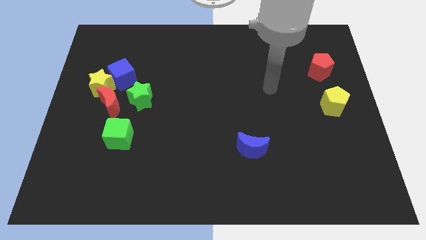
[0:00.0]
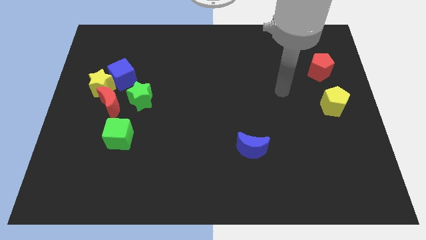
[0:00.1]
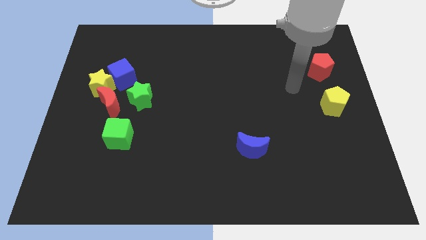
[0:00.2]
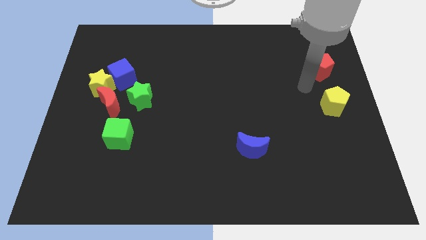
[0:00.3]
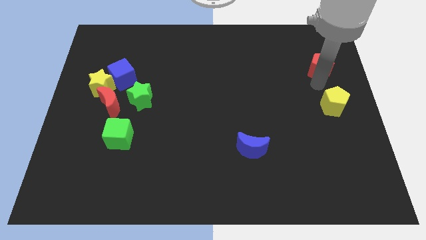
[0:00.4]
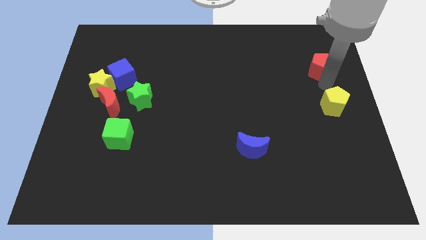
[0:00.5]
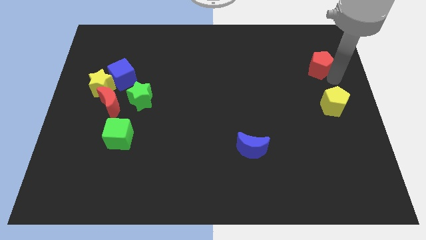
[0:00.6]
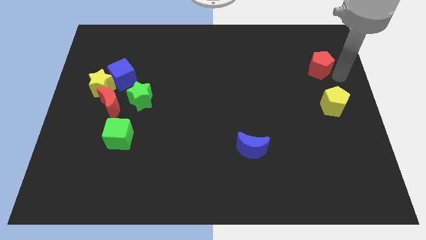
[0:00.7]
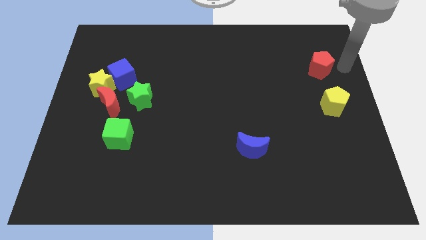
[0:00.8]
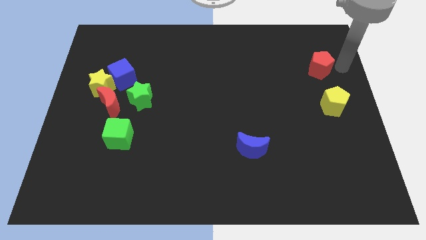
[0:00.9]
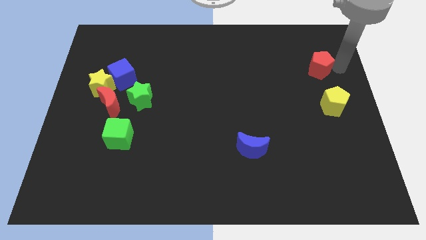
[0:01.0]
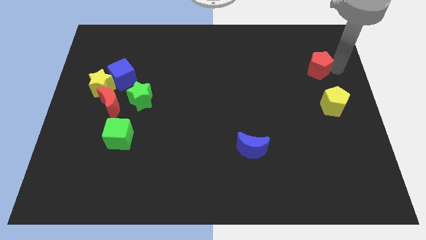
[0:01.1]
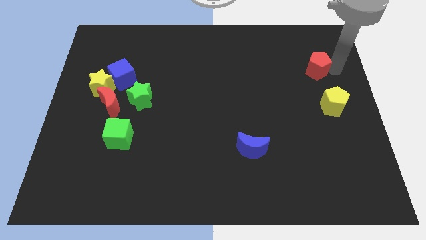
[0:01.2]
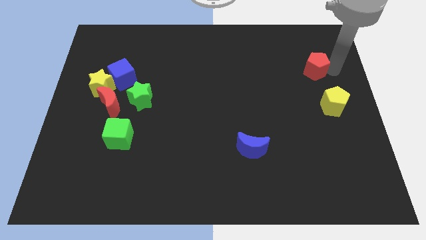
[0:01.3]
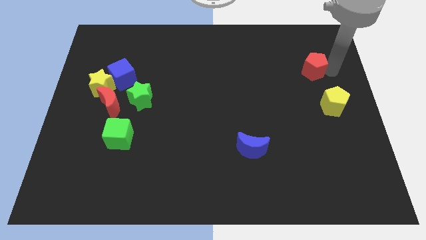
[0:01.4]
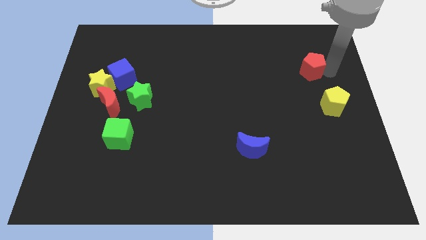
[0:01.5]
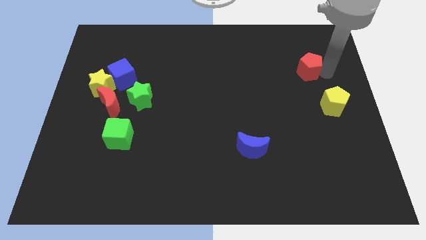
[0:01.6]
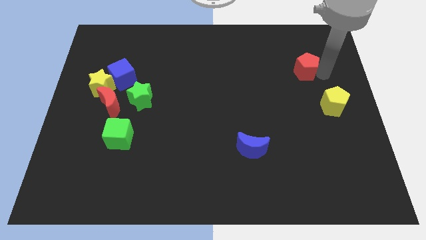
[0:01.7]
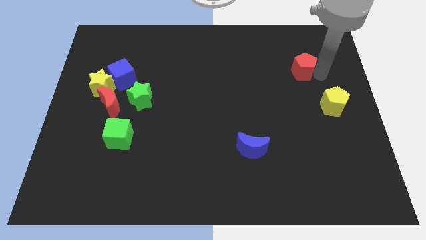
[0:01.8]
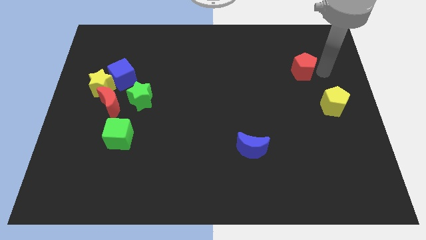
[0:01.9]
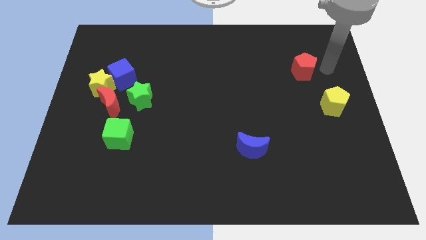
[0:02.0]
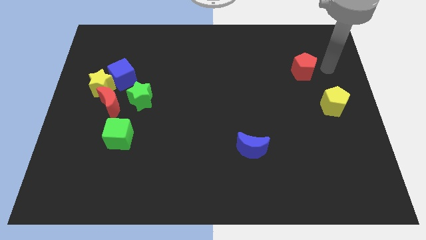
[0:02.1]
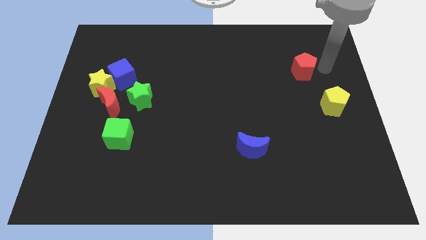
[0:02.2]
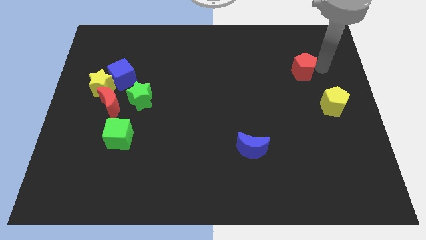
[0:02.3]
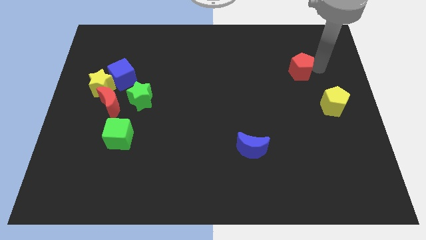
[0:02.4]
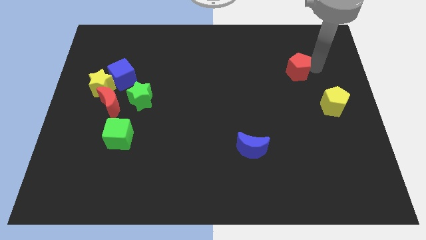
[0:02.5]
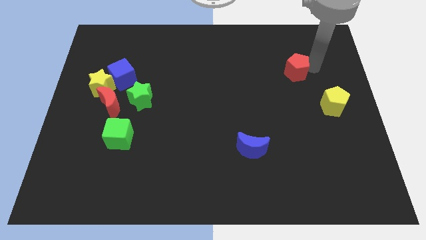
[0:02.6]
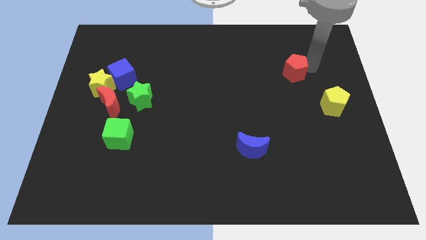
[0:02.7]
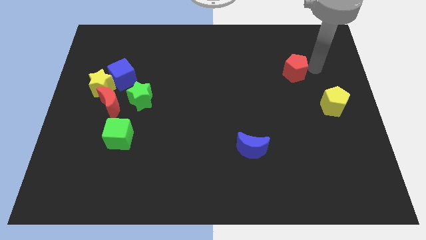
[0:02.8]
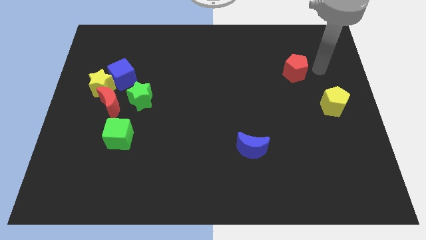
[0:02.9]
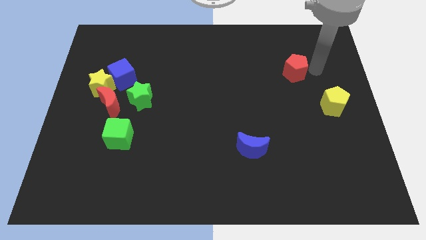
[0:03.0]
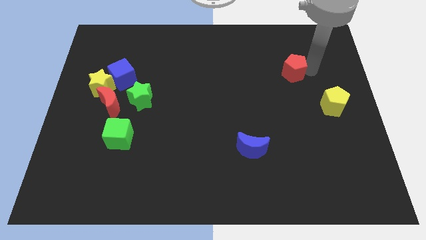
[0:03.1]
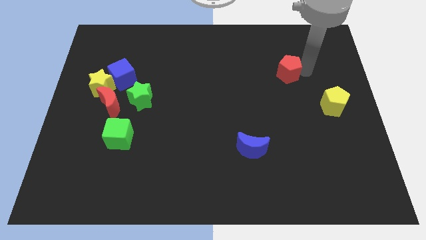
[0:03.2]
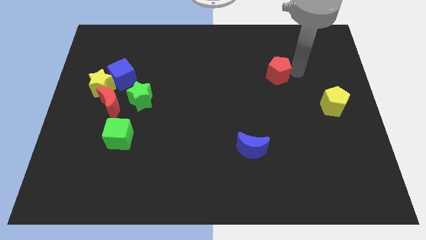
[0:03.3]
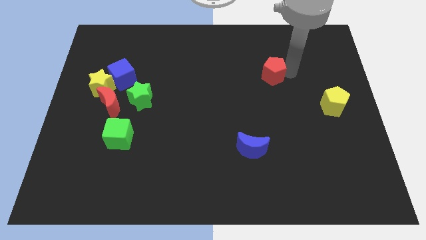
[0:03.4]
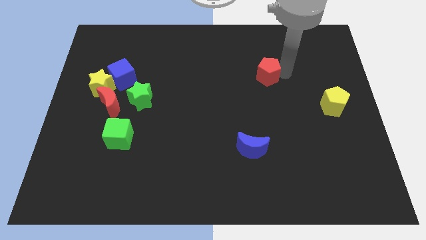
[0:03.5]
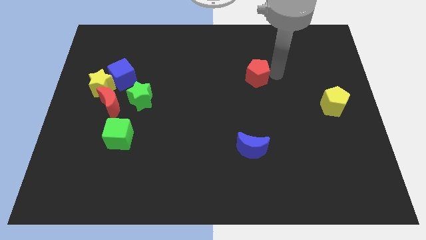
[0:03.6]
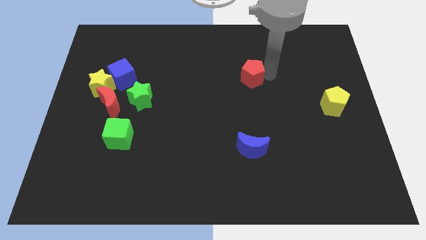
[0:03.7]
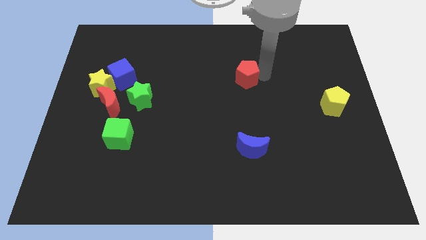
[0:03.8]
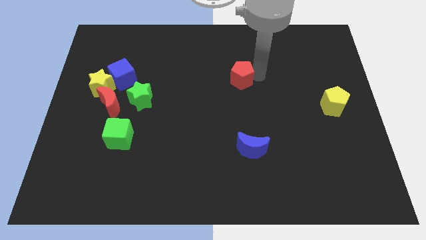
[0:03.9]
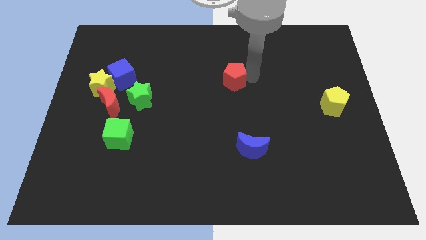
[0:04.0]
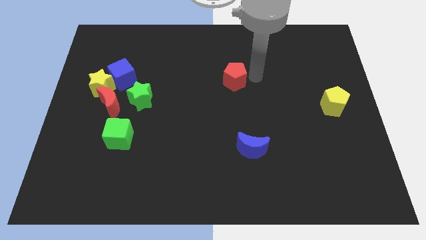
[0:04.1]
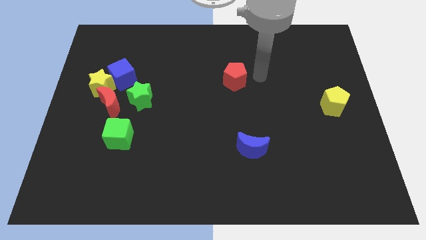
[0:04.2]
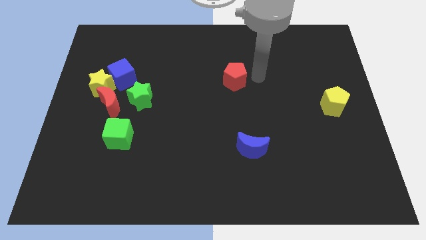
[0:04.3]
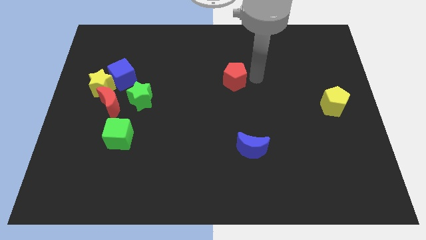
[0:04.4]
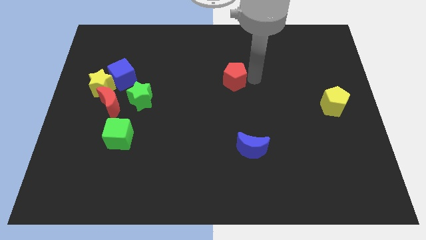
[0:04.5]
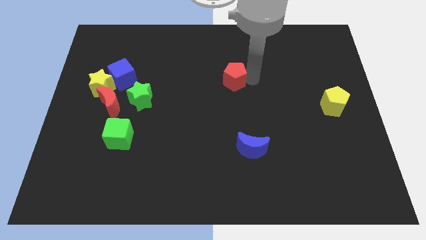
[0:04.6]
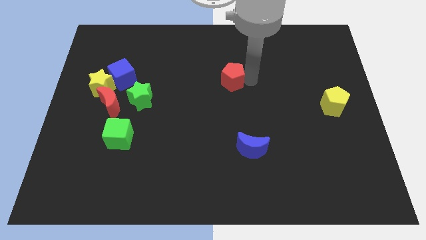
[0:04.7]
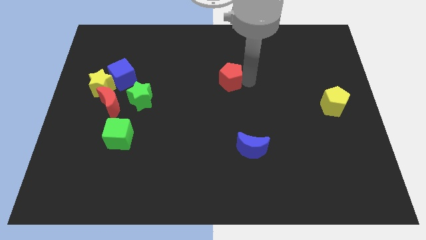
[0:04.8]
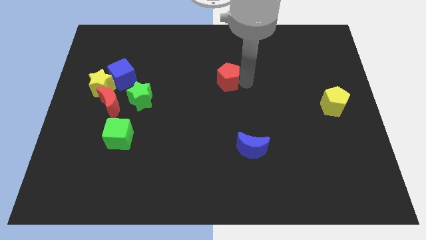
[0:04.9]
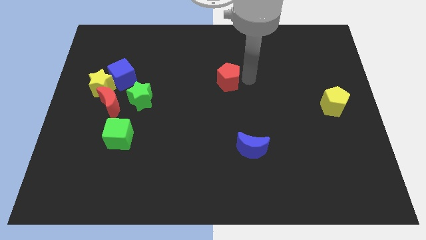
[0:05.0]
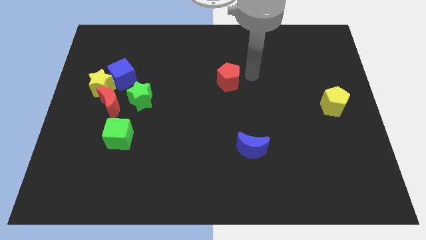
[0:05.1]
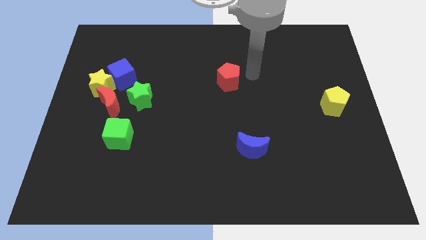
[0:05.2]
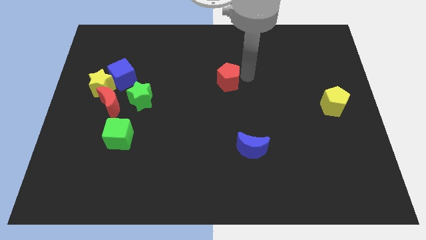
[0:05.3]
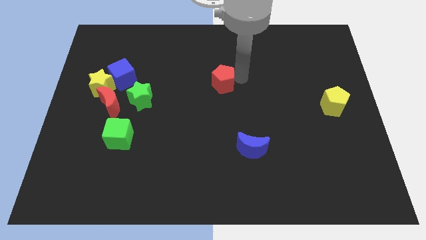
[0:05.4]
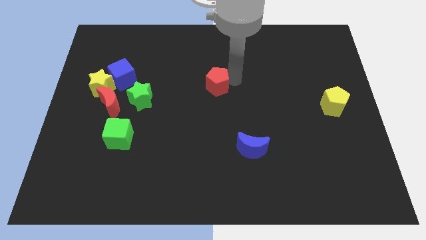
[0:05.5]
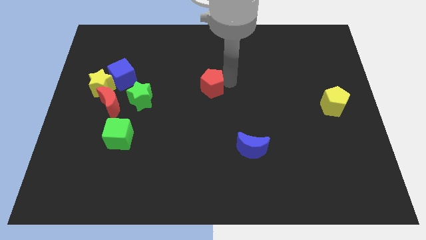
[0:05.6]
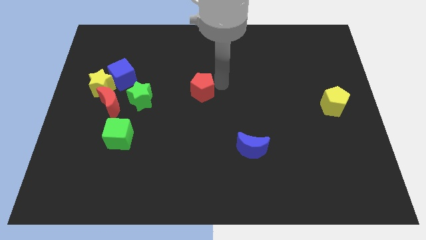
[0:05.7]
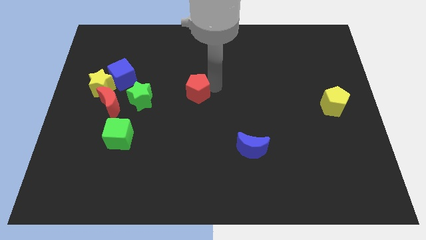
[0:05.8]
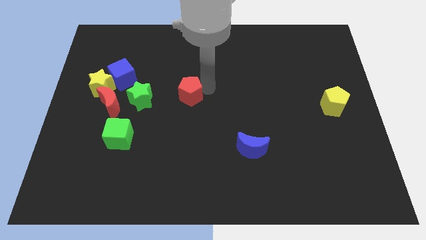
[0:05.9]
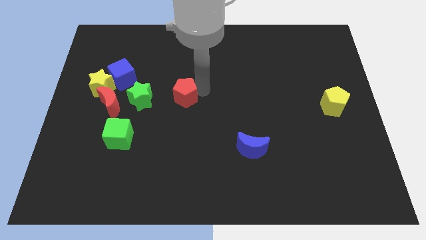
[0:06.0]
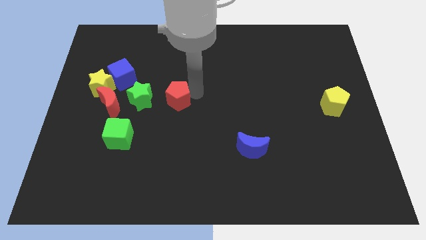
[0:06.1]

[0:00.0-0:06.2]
put the red pentagon to the right of the red moon

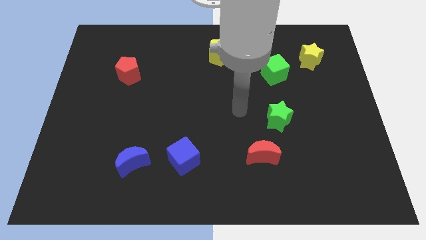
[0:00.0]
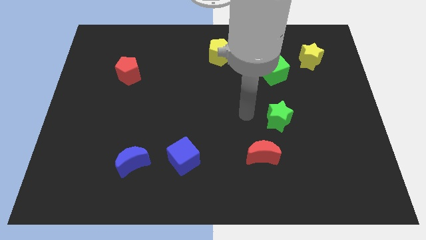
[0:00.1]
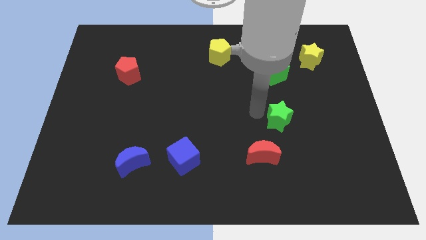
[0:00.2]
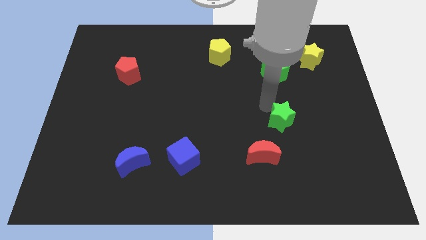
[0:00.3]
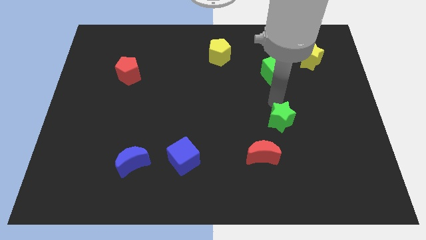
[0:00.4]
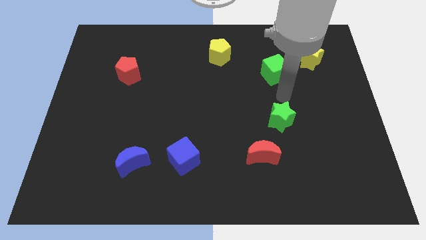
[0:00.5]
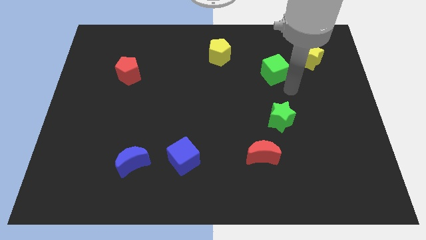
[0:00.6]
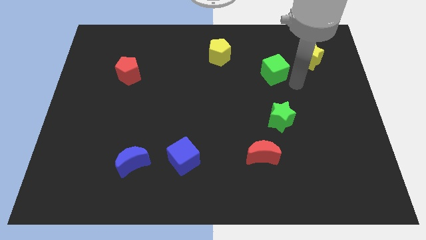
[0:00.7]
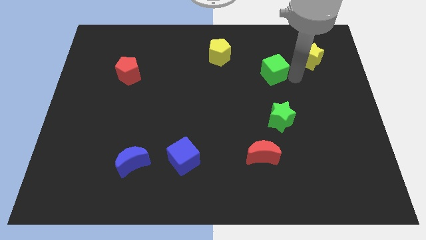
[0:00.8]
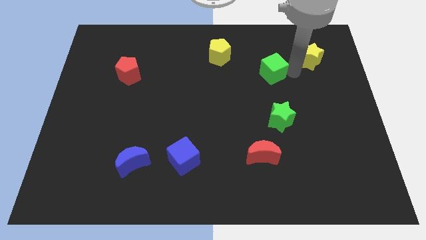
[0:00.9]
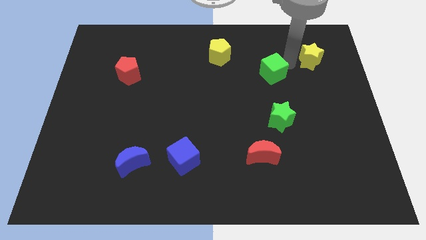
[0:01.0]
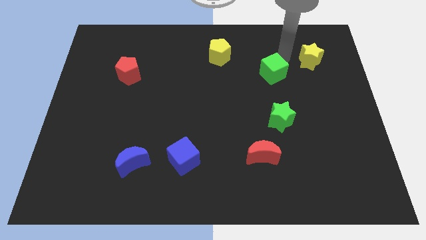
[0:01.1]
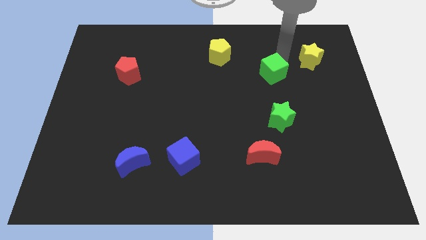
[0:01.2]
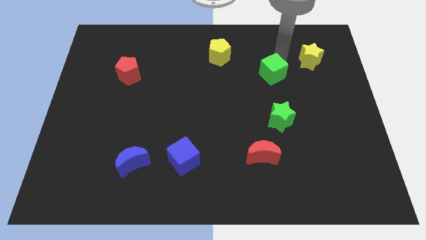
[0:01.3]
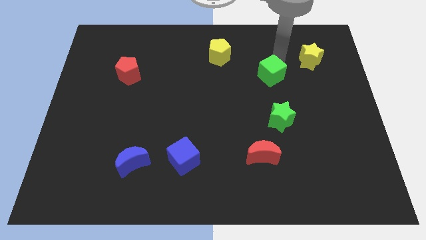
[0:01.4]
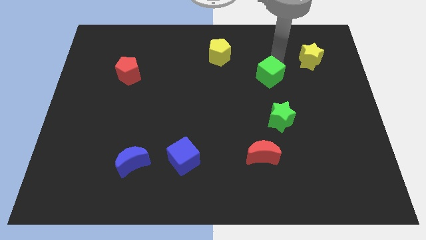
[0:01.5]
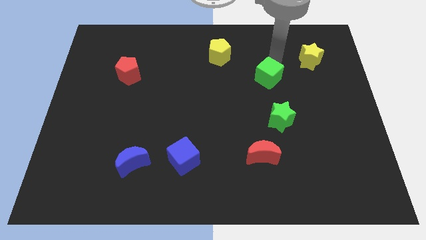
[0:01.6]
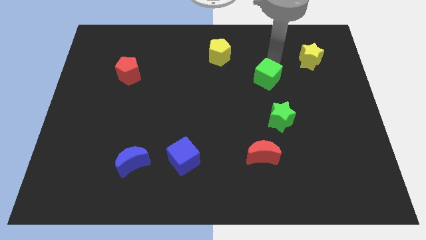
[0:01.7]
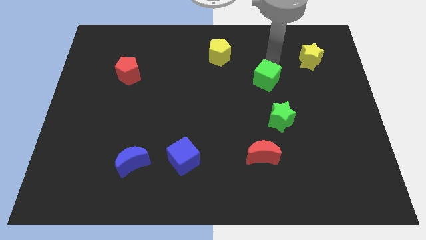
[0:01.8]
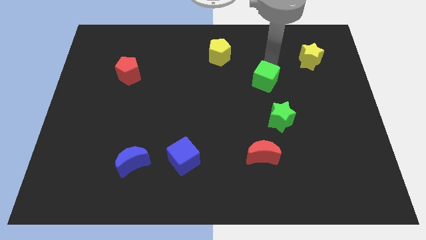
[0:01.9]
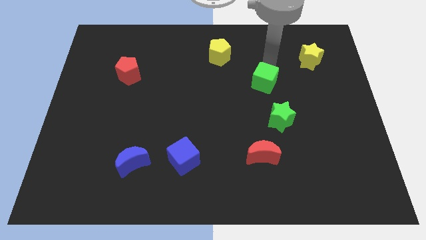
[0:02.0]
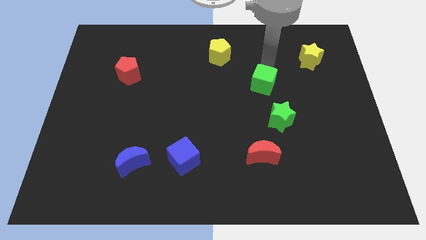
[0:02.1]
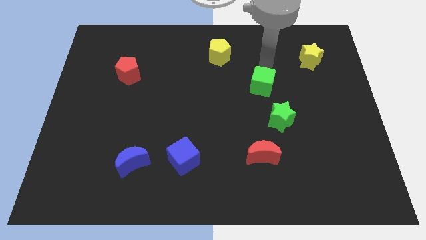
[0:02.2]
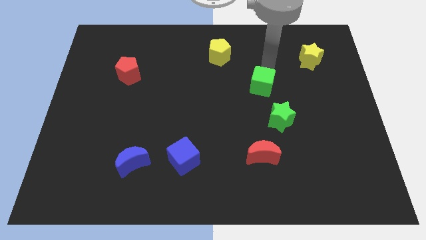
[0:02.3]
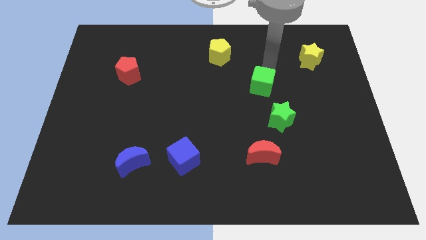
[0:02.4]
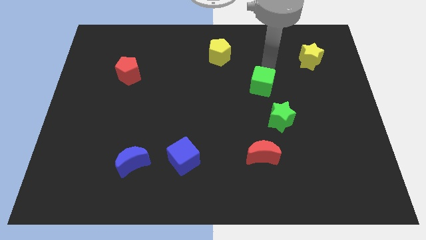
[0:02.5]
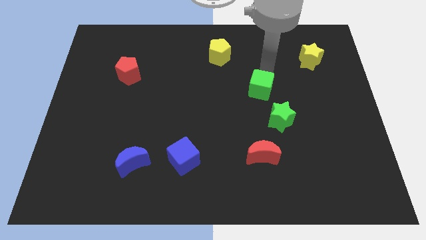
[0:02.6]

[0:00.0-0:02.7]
move the green cube to the top left side of the green star
